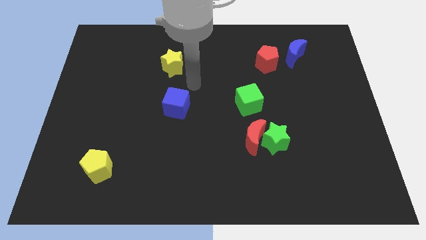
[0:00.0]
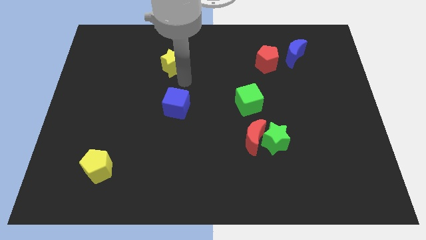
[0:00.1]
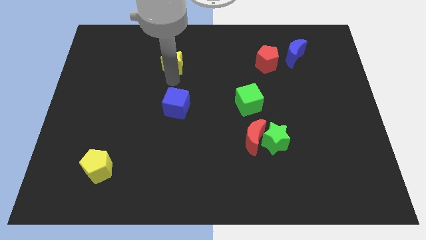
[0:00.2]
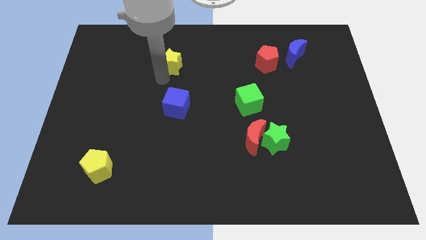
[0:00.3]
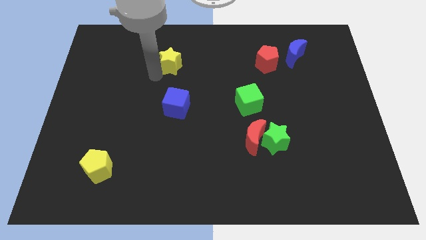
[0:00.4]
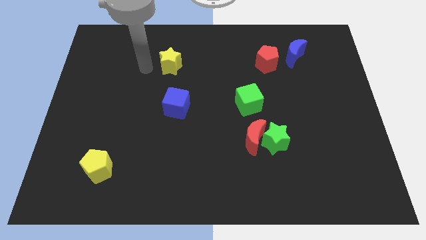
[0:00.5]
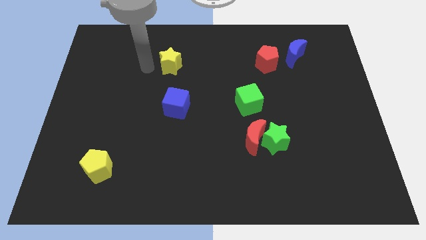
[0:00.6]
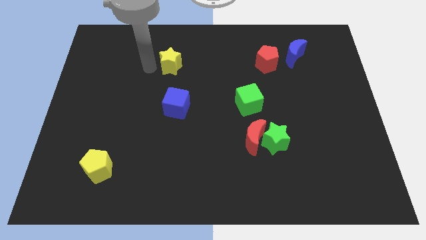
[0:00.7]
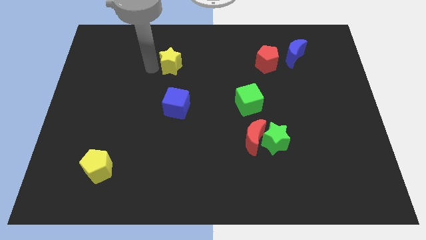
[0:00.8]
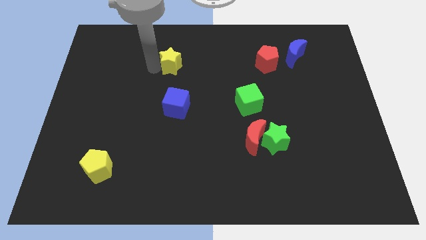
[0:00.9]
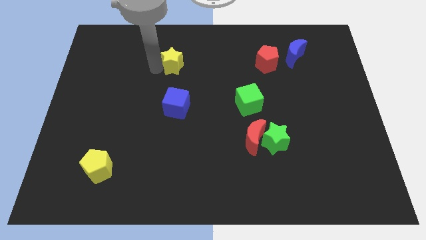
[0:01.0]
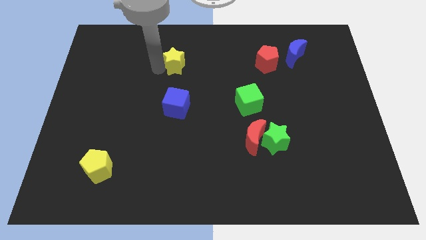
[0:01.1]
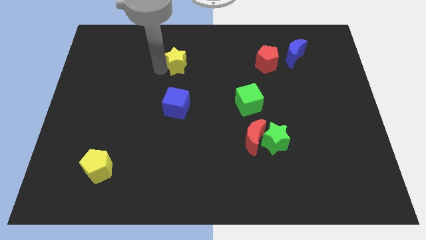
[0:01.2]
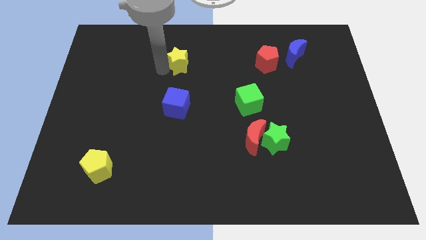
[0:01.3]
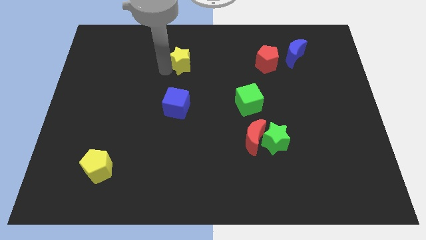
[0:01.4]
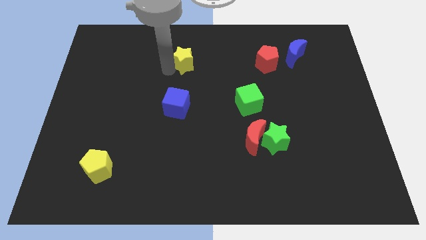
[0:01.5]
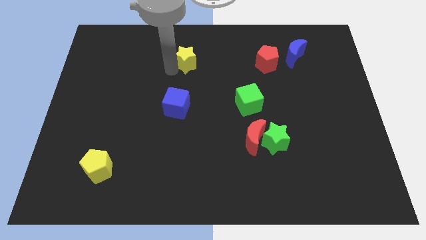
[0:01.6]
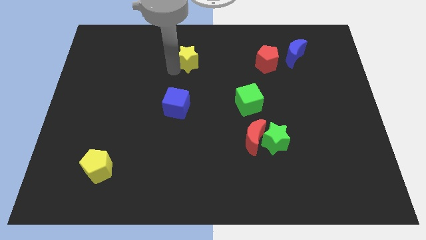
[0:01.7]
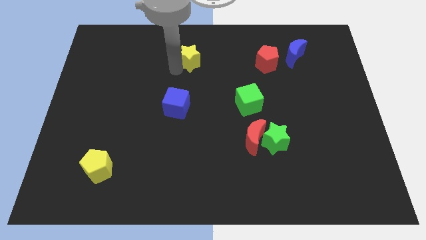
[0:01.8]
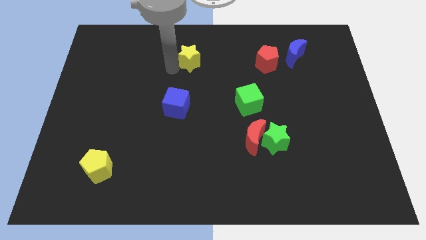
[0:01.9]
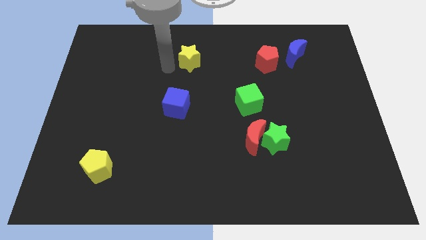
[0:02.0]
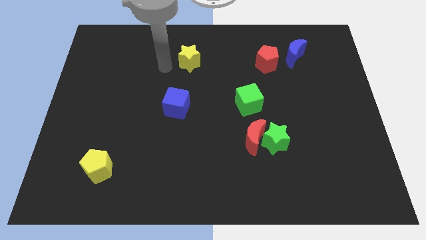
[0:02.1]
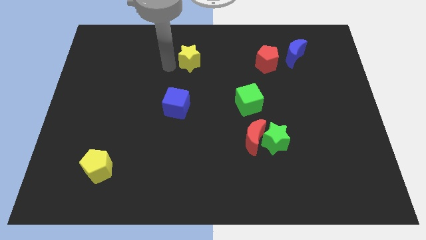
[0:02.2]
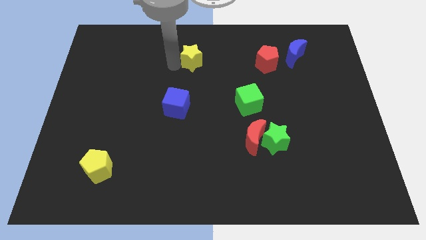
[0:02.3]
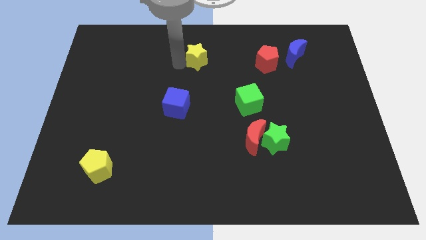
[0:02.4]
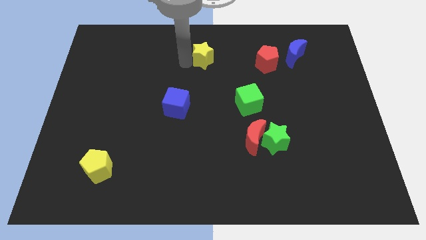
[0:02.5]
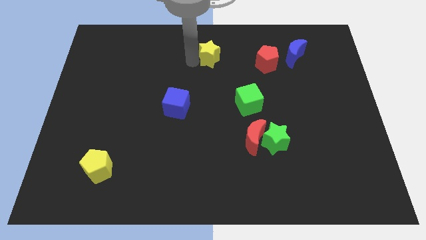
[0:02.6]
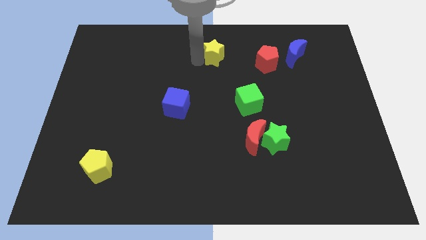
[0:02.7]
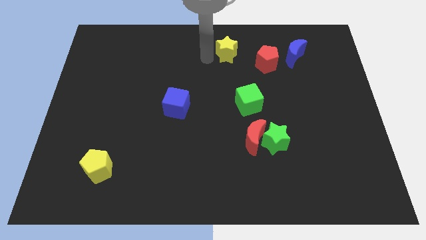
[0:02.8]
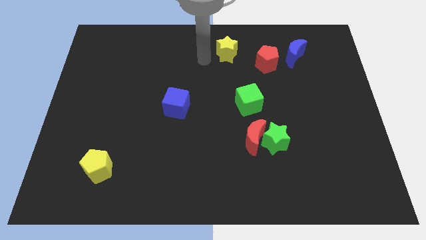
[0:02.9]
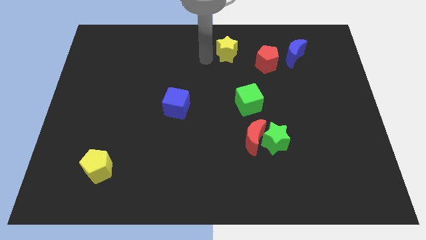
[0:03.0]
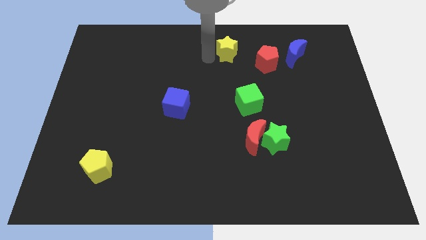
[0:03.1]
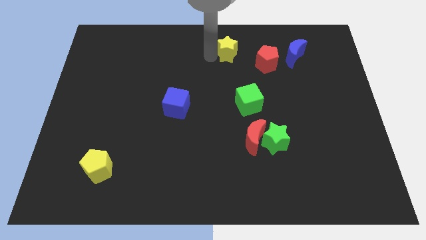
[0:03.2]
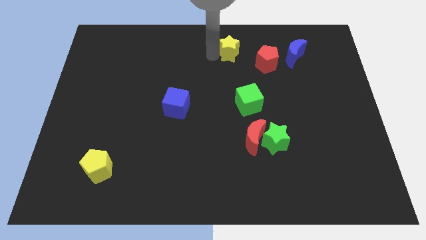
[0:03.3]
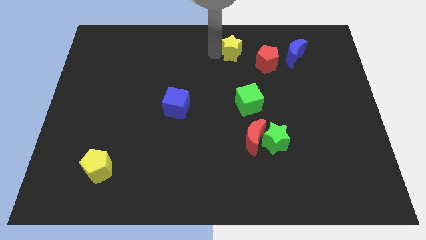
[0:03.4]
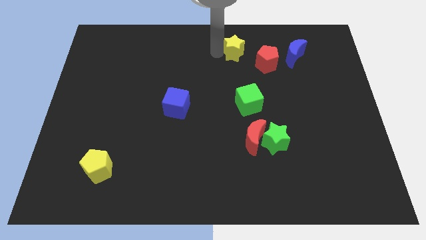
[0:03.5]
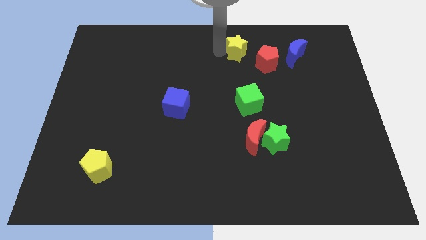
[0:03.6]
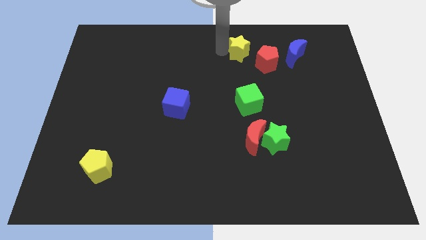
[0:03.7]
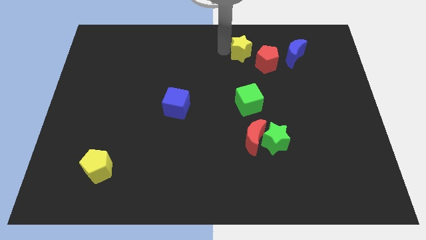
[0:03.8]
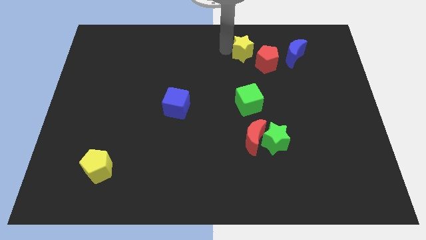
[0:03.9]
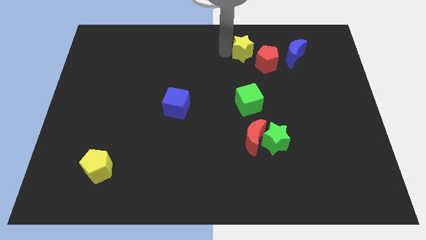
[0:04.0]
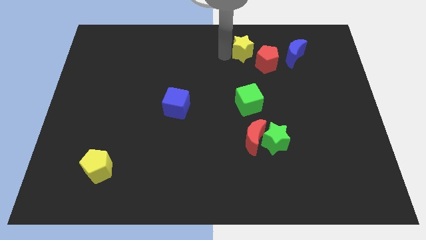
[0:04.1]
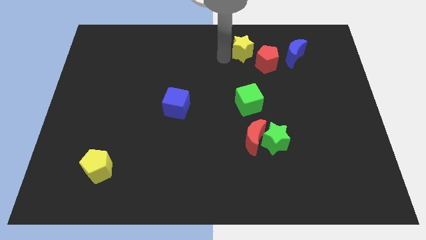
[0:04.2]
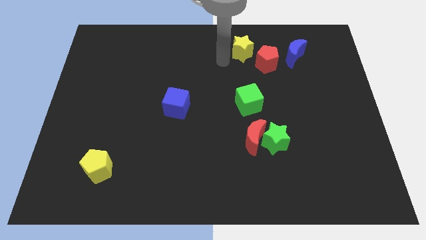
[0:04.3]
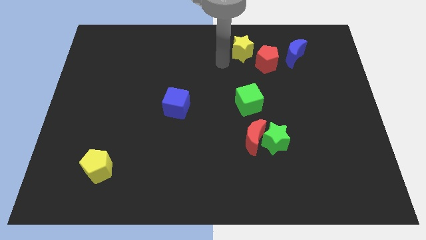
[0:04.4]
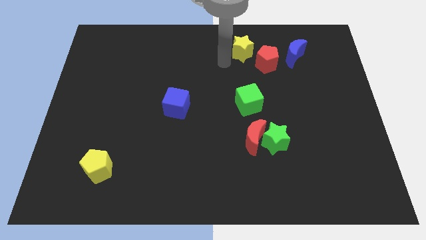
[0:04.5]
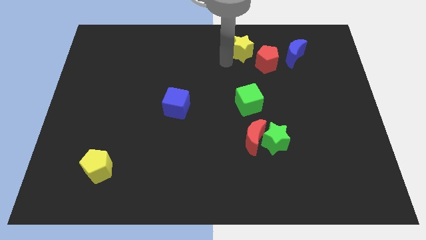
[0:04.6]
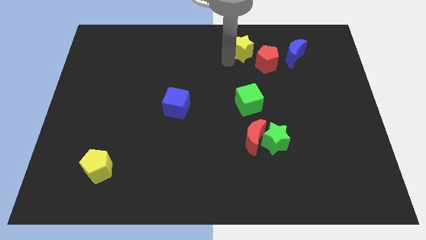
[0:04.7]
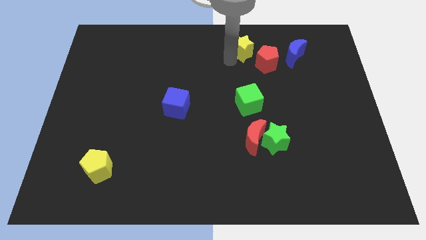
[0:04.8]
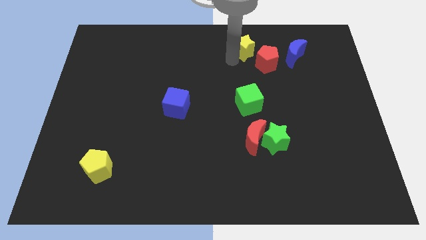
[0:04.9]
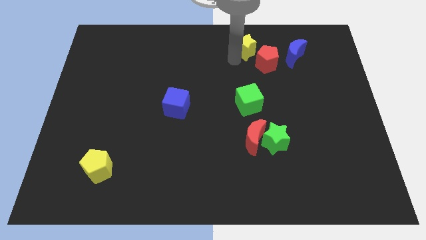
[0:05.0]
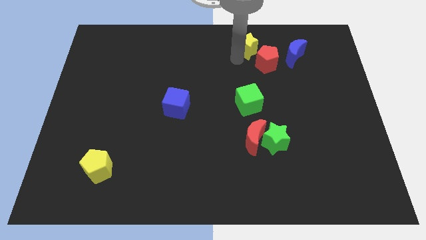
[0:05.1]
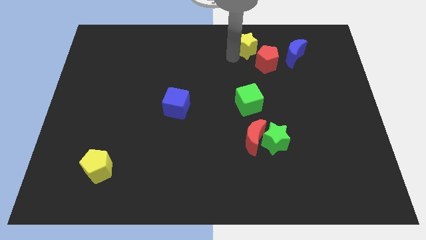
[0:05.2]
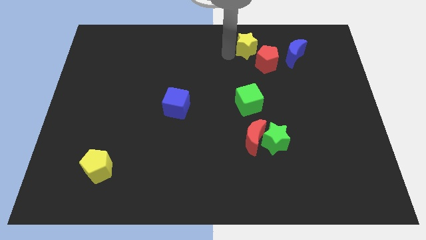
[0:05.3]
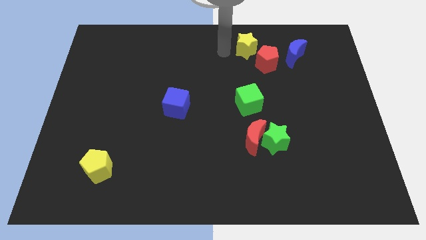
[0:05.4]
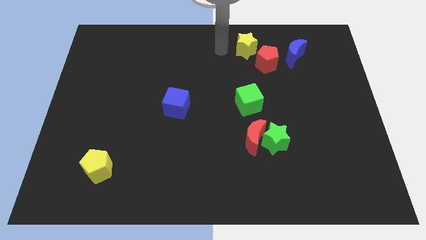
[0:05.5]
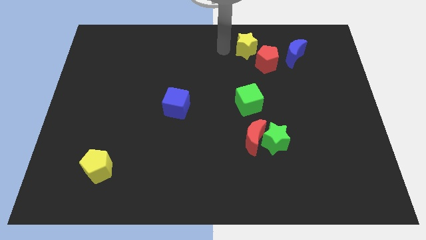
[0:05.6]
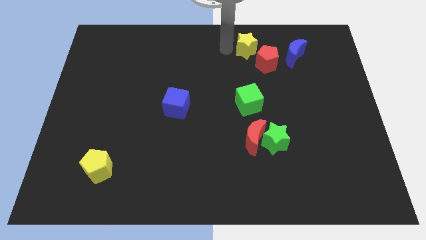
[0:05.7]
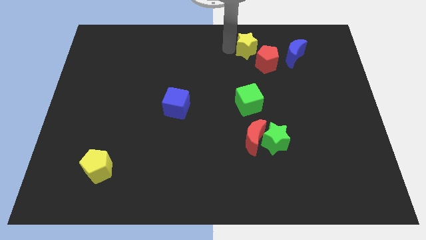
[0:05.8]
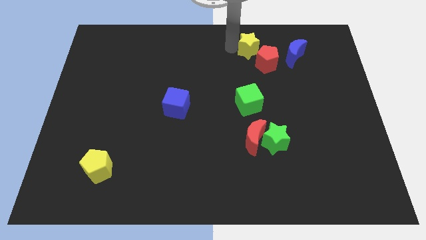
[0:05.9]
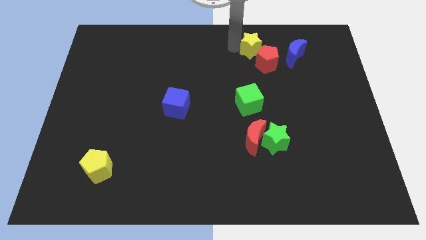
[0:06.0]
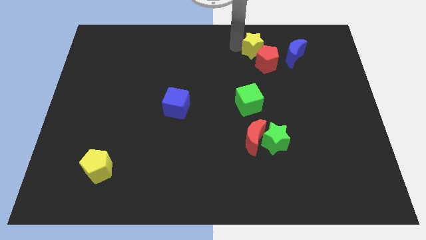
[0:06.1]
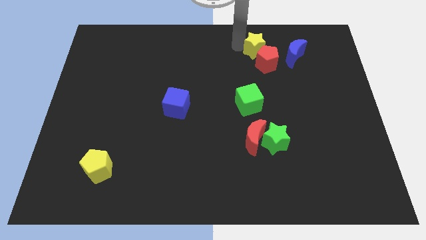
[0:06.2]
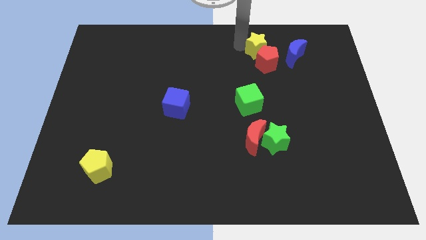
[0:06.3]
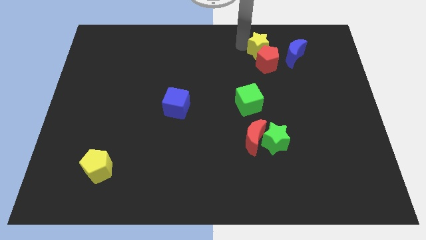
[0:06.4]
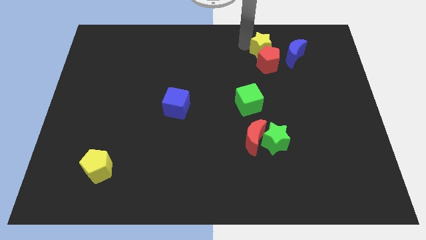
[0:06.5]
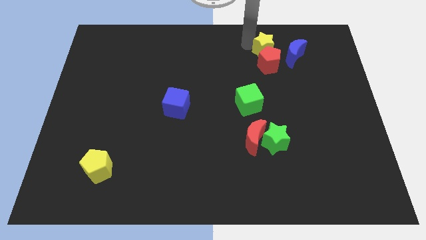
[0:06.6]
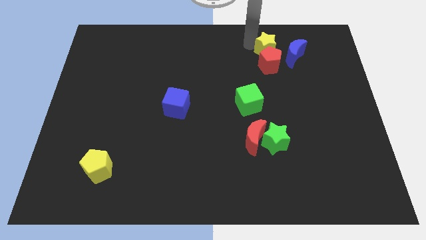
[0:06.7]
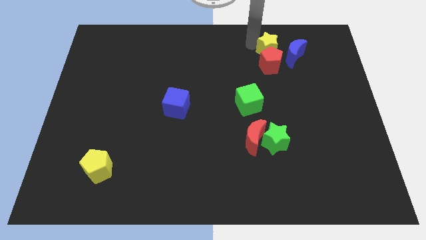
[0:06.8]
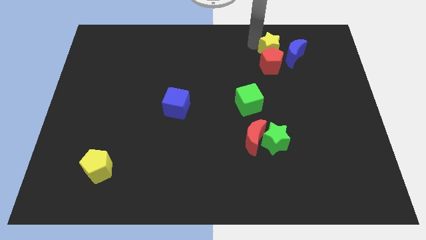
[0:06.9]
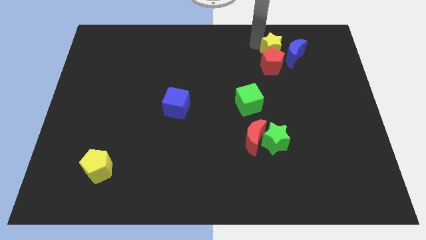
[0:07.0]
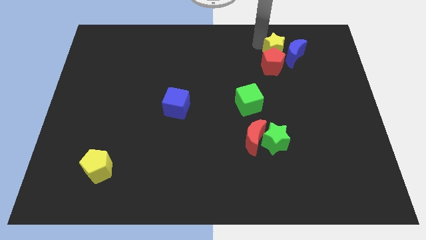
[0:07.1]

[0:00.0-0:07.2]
move the yellow star to the blue moon
